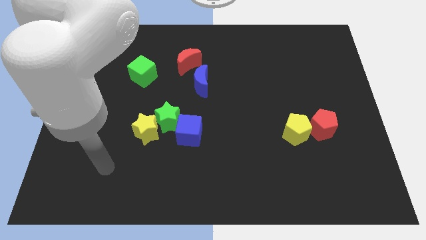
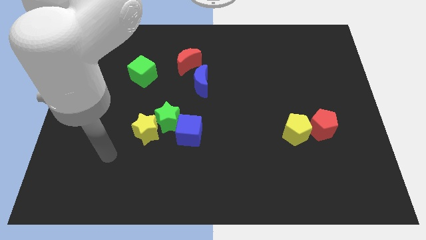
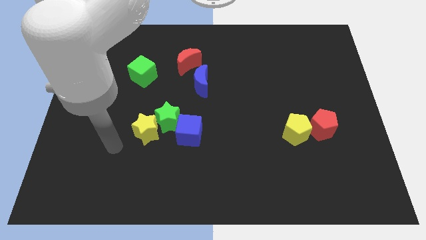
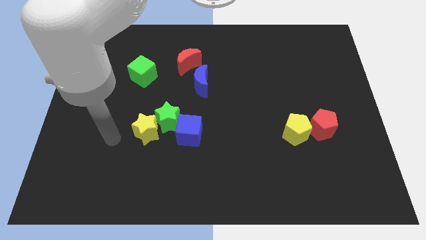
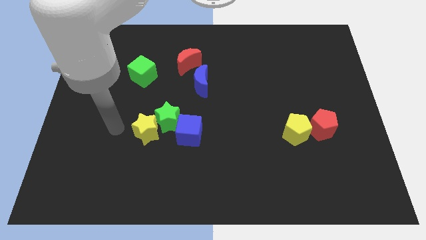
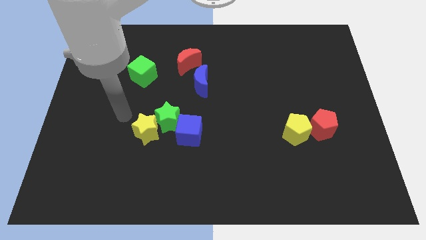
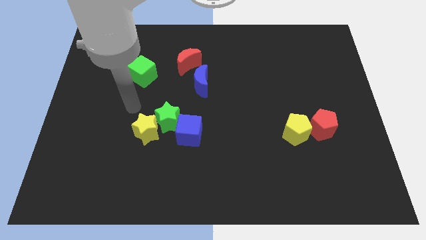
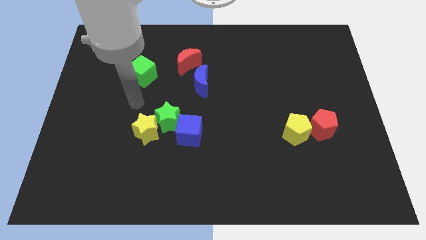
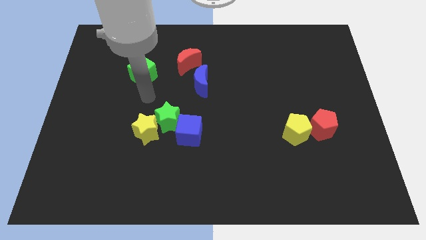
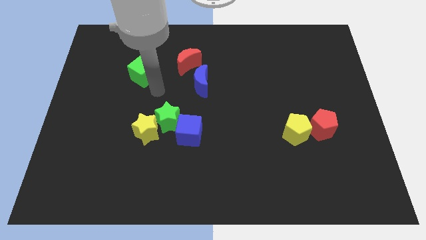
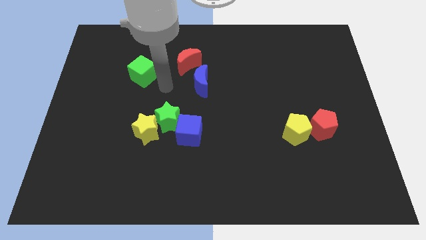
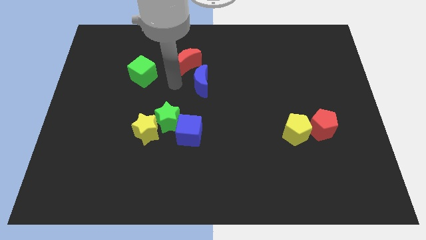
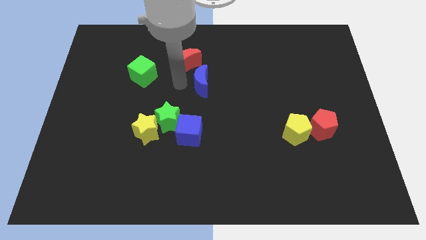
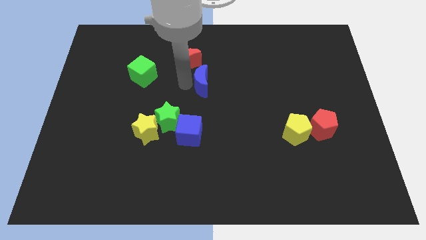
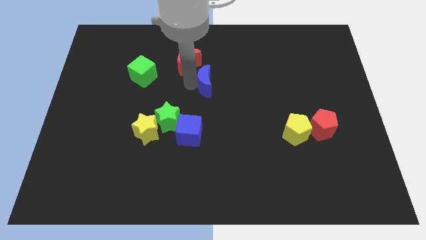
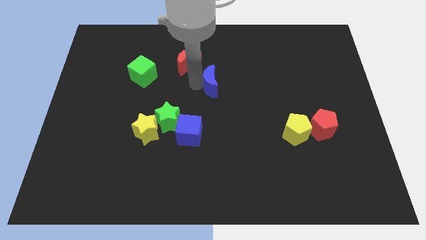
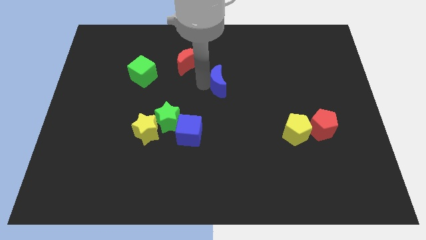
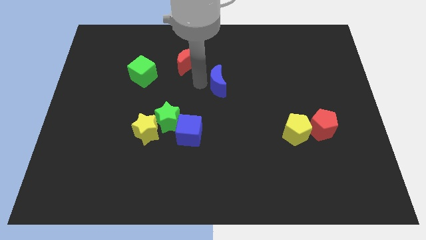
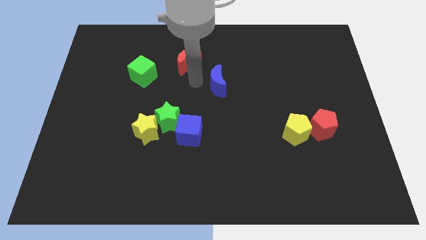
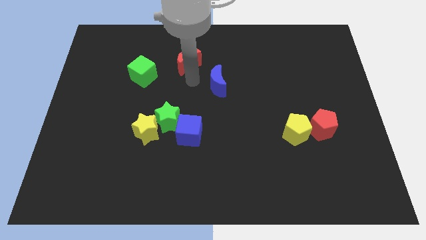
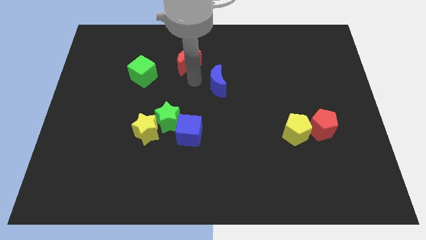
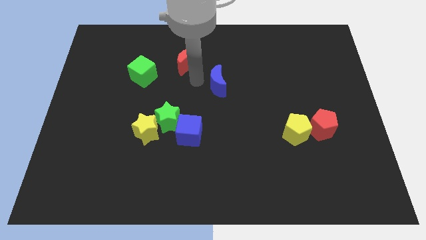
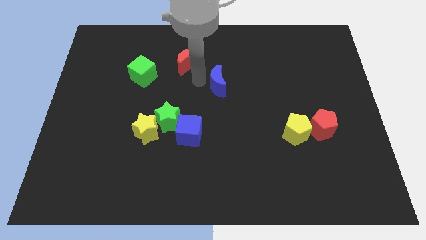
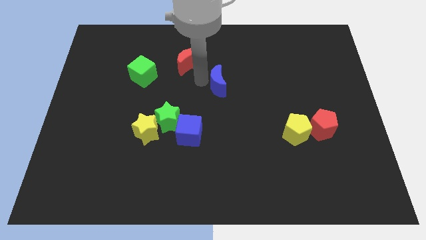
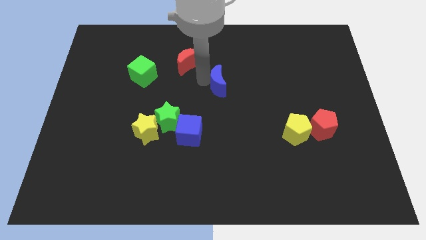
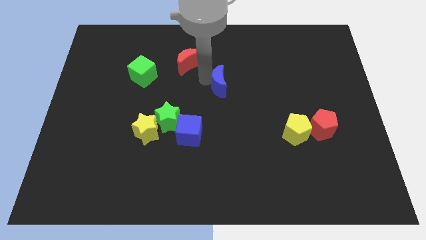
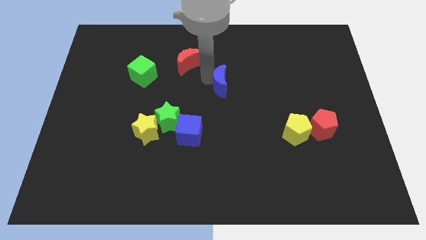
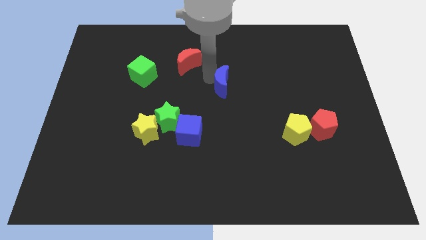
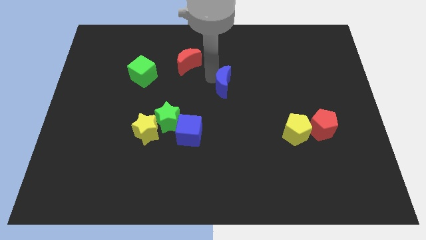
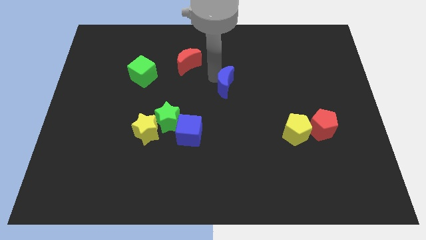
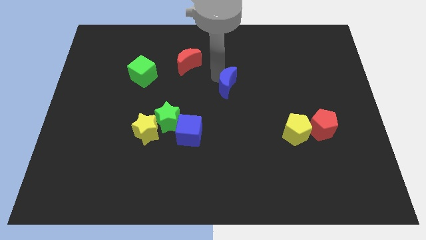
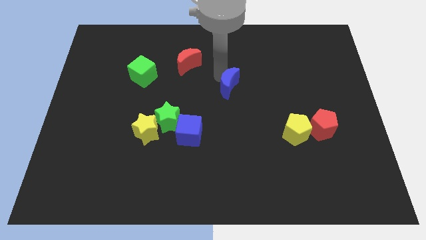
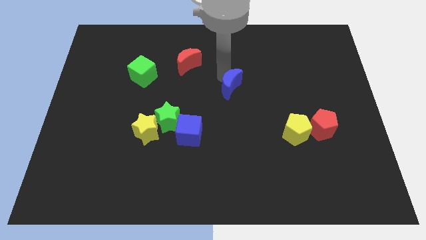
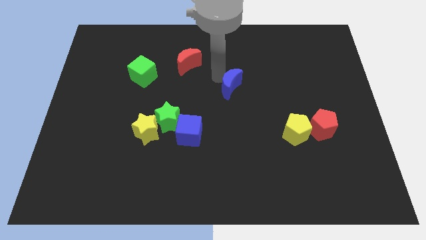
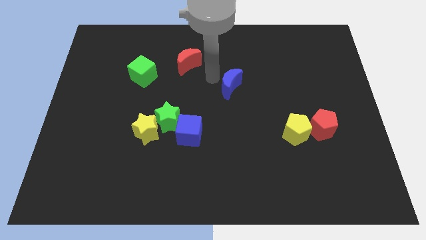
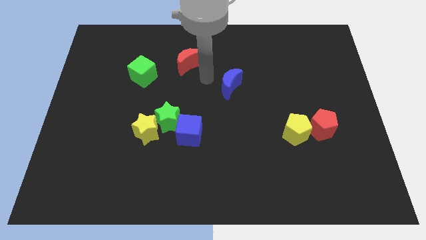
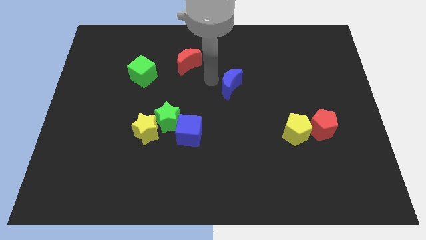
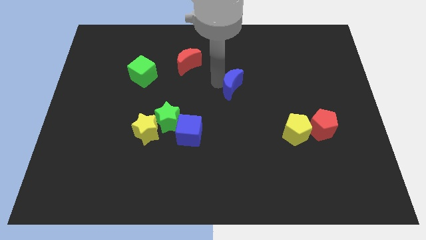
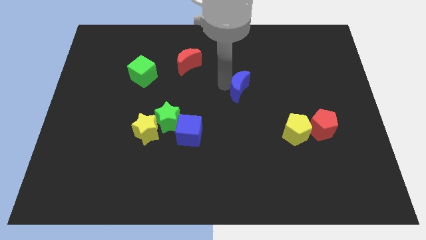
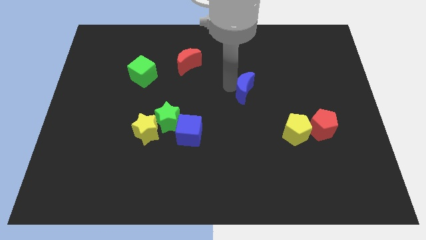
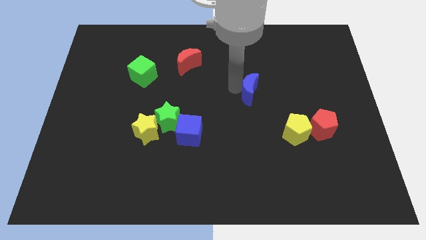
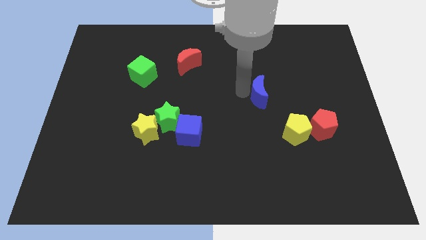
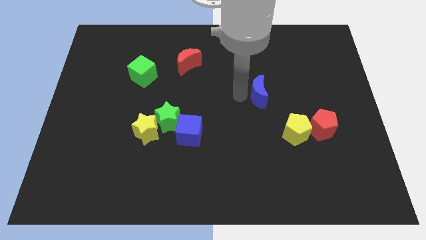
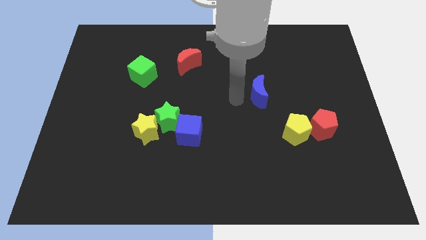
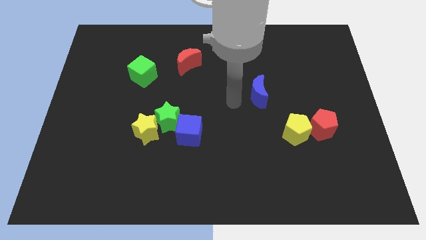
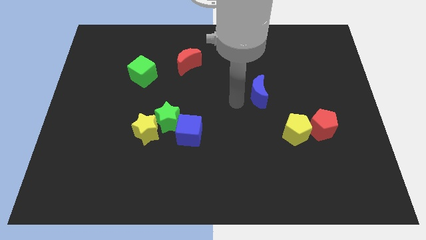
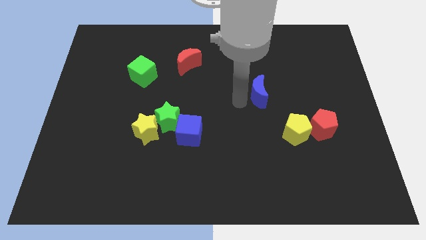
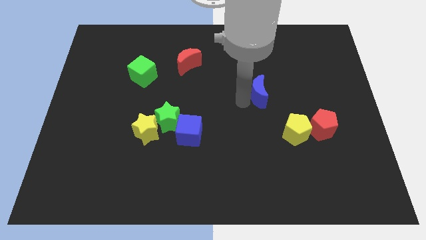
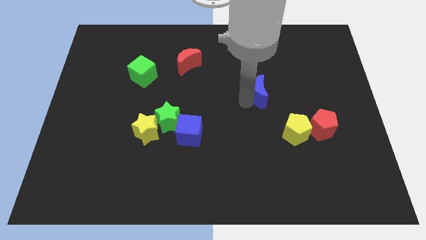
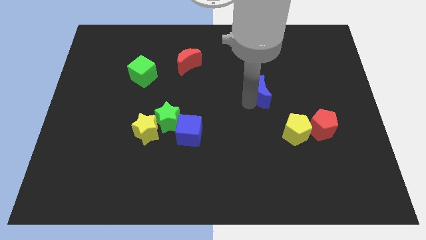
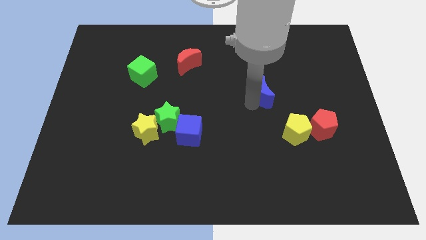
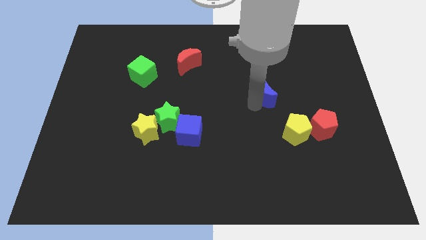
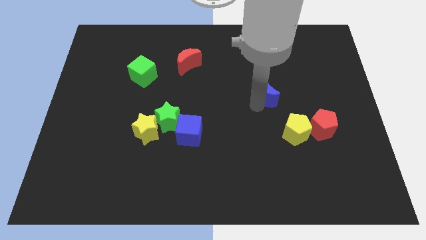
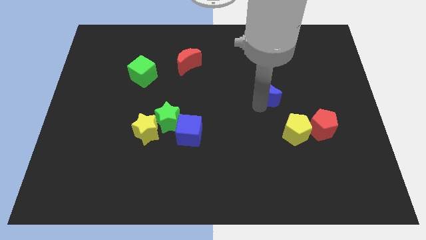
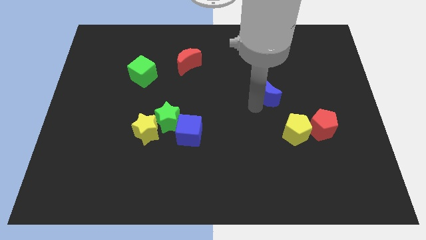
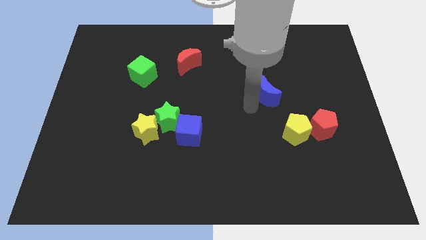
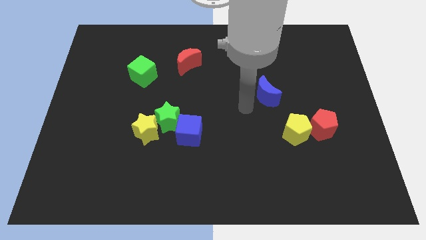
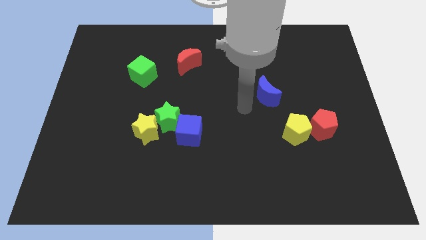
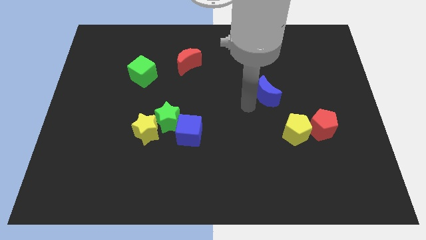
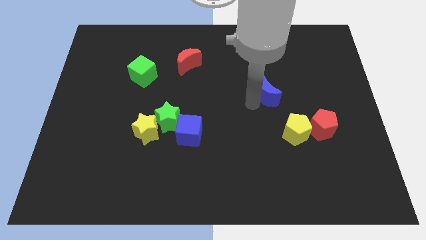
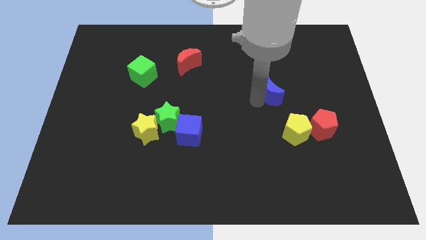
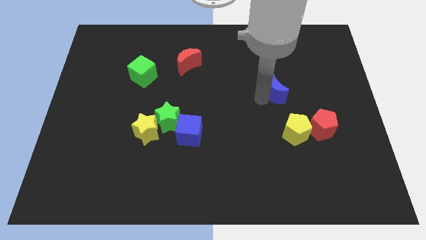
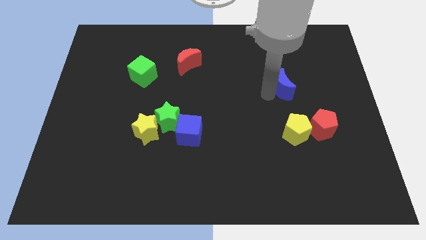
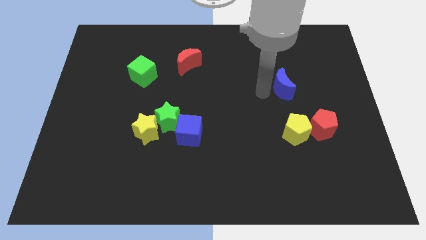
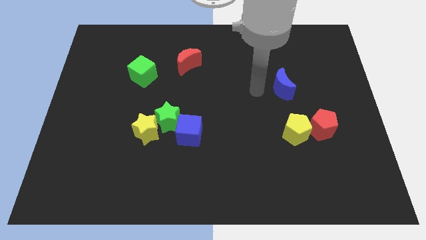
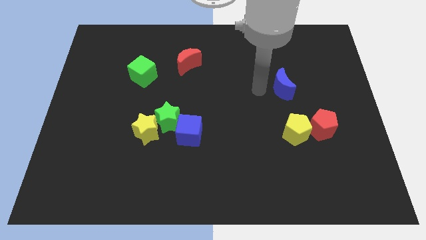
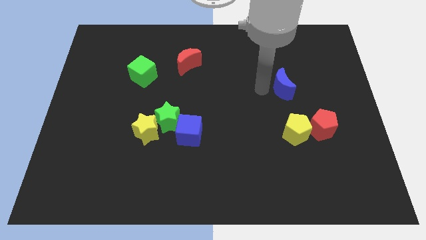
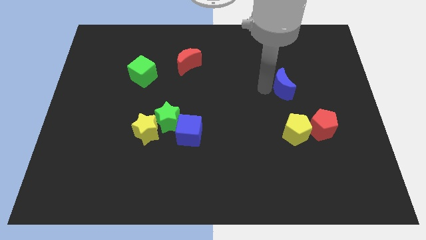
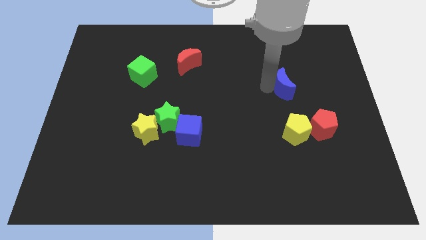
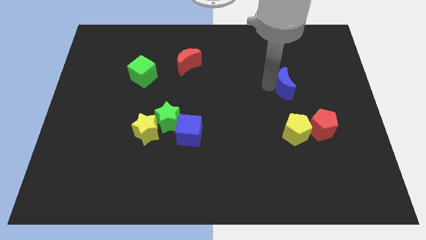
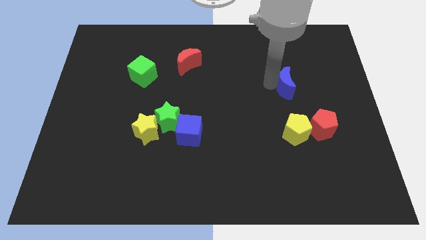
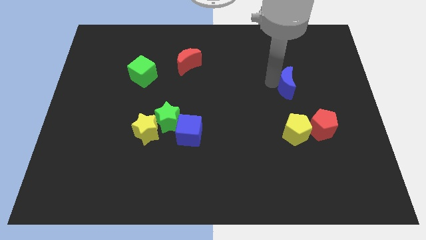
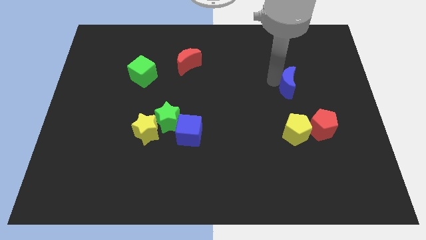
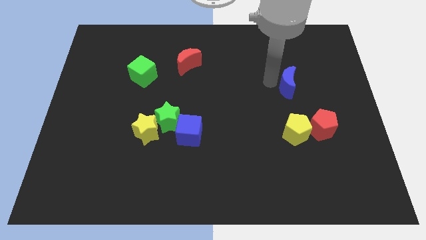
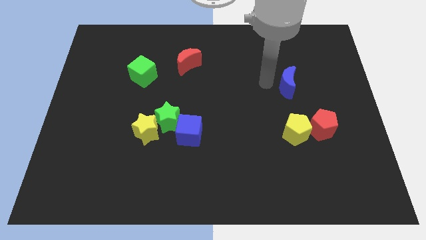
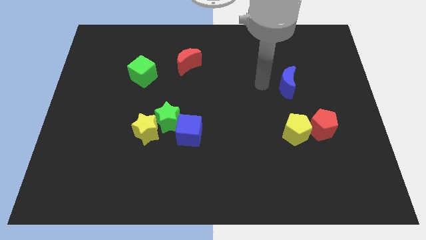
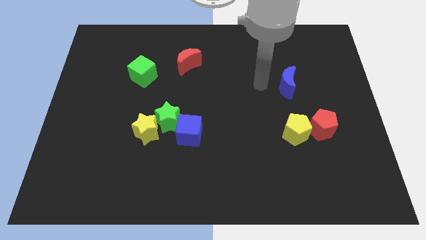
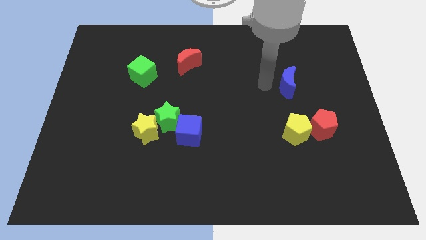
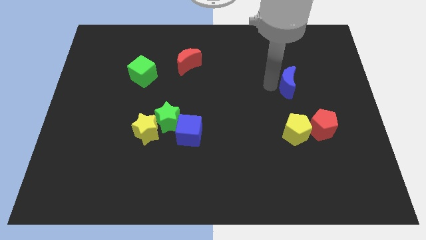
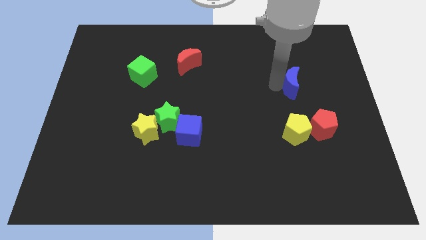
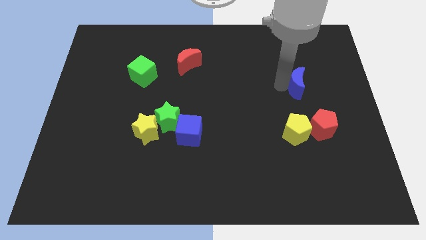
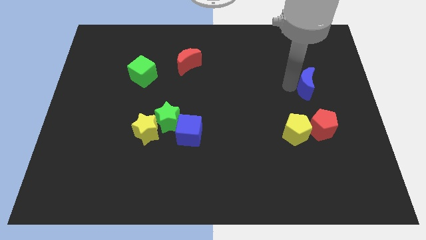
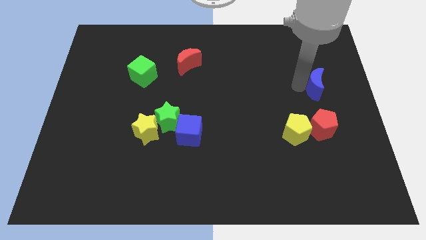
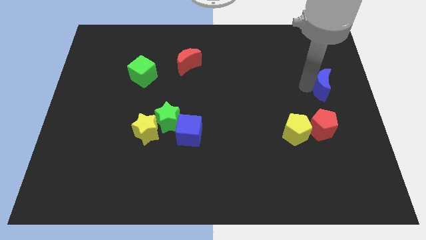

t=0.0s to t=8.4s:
slide the blue moon to the right side of the board
